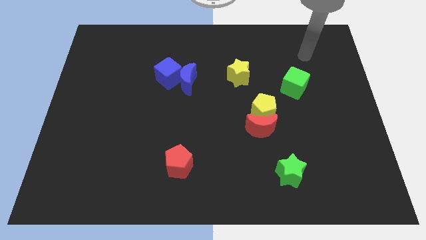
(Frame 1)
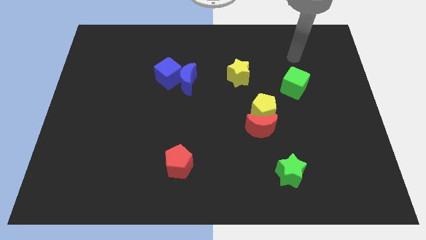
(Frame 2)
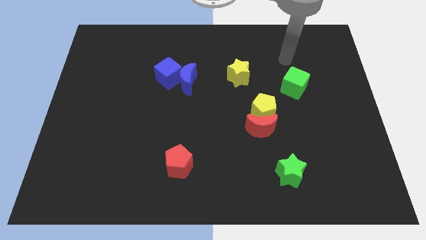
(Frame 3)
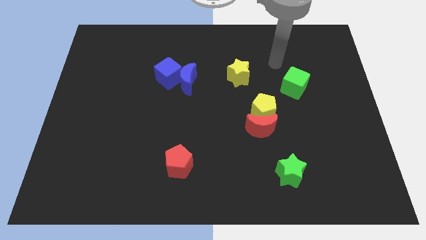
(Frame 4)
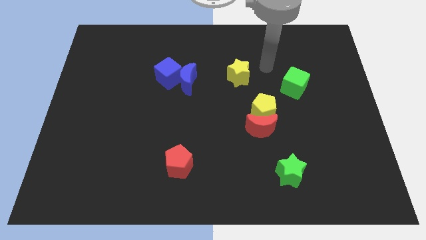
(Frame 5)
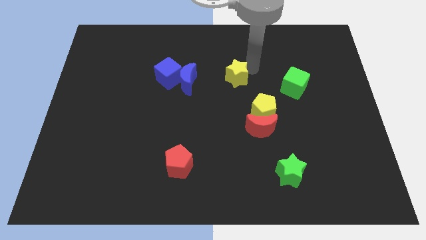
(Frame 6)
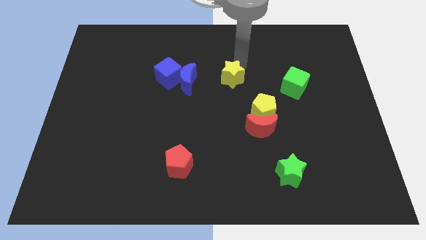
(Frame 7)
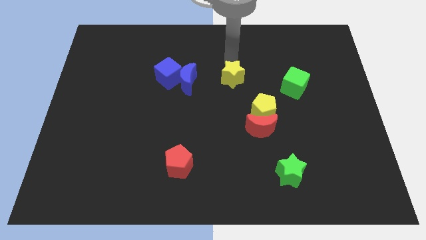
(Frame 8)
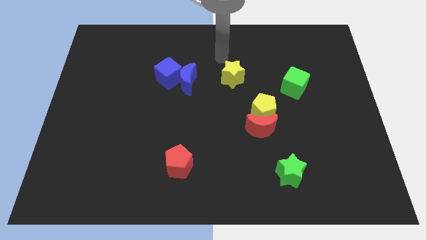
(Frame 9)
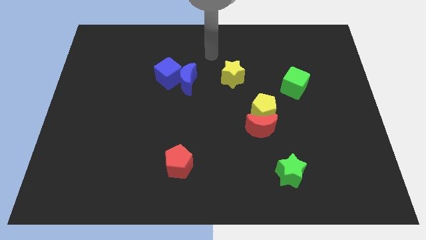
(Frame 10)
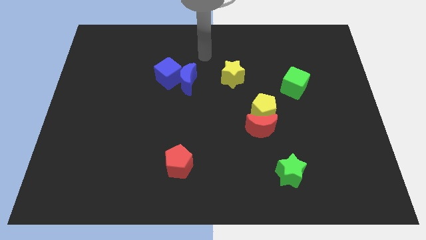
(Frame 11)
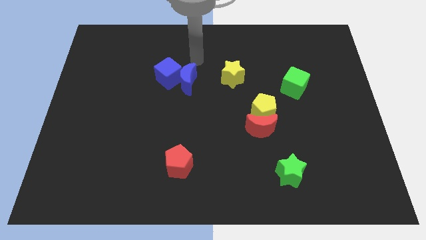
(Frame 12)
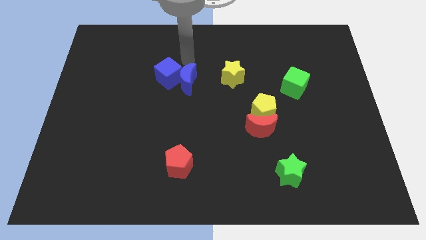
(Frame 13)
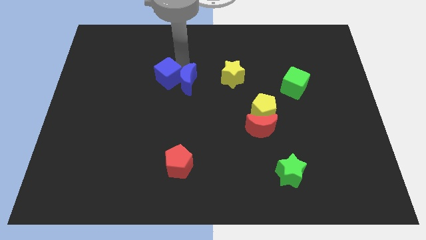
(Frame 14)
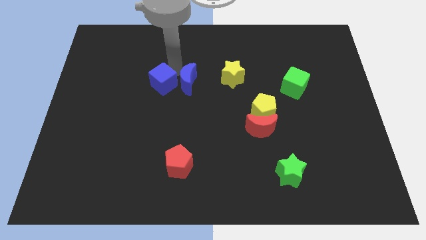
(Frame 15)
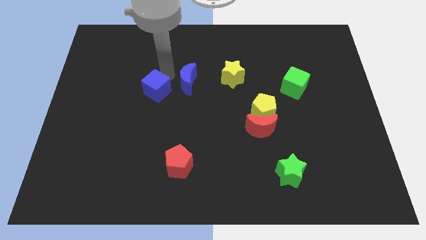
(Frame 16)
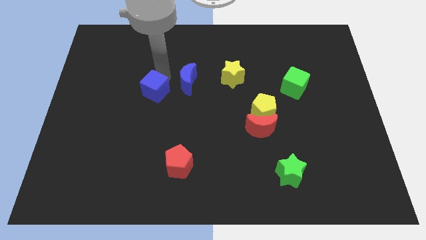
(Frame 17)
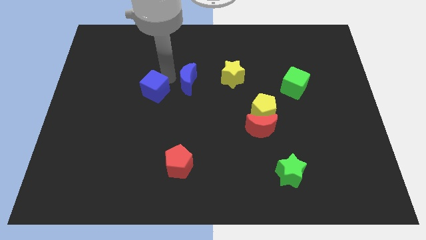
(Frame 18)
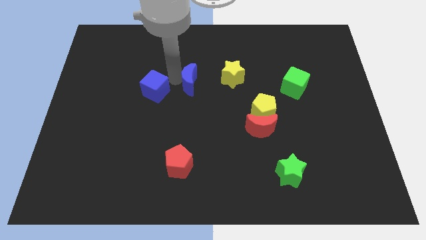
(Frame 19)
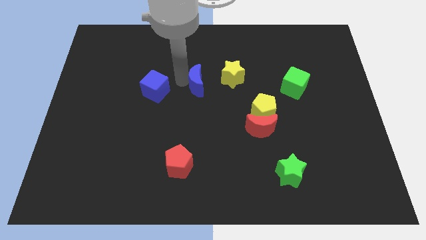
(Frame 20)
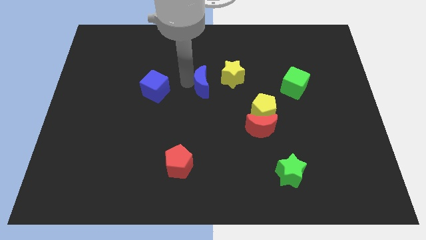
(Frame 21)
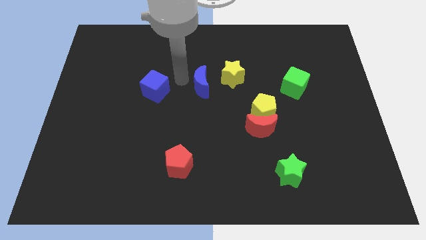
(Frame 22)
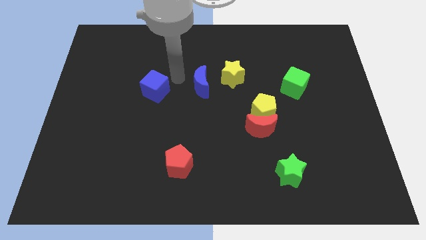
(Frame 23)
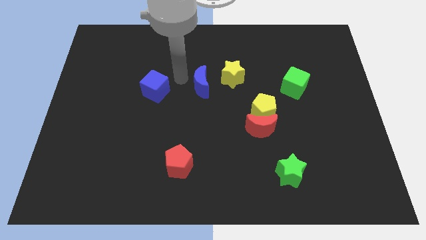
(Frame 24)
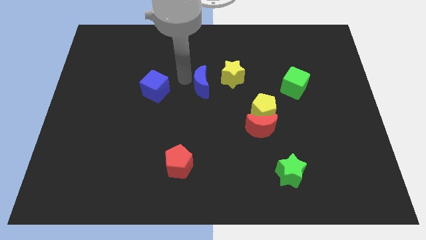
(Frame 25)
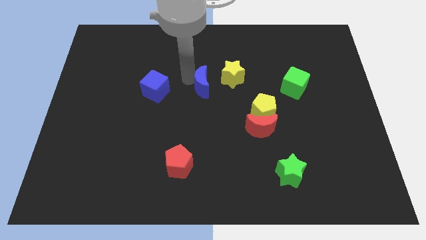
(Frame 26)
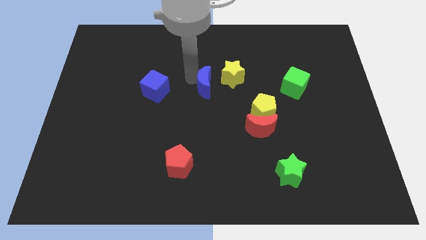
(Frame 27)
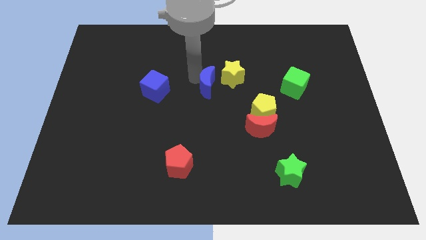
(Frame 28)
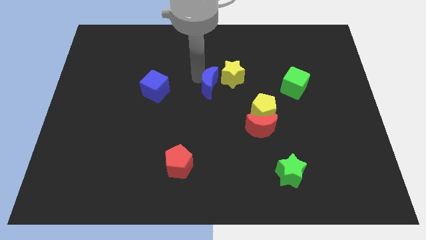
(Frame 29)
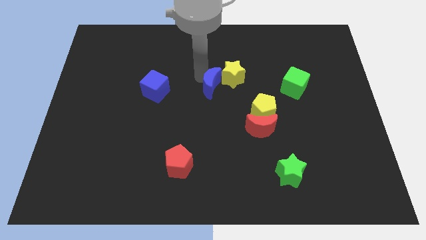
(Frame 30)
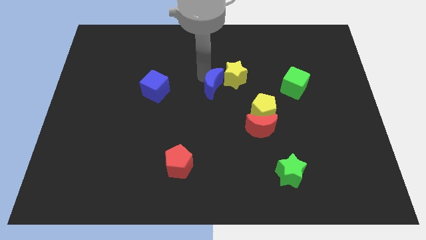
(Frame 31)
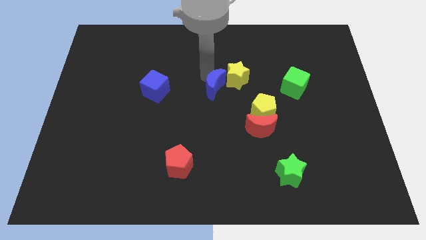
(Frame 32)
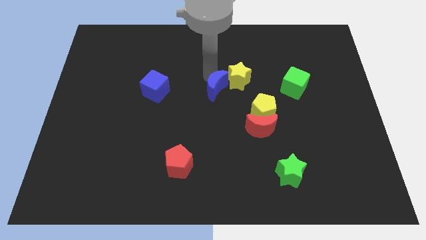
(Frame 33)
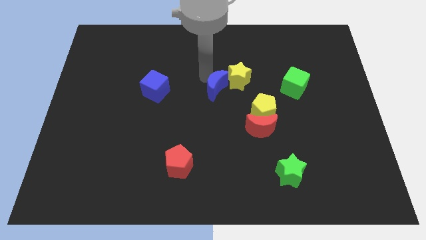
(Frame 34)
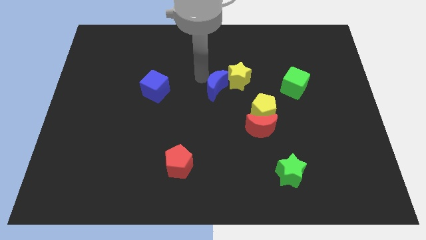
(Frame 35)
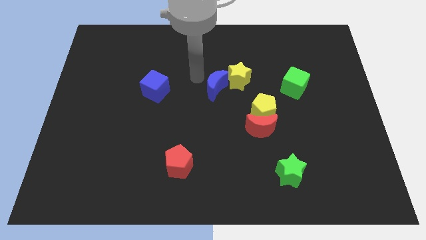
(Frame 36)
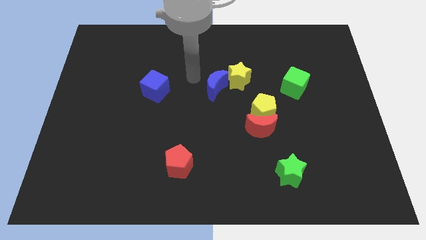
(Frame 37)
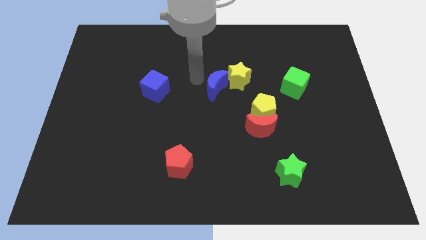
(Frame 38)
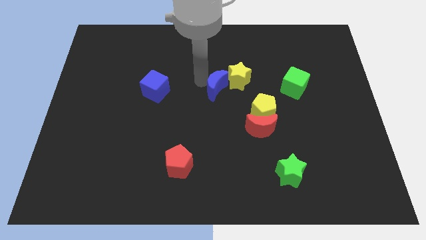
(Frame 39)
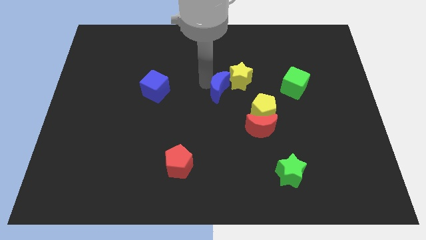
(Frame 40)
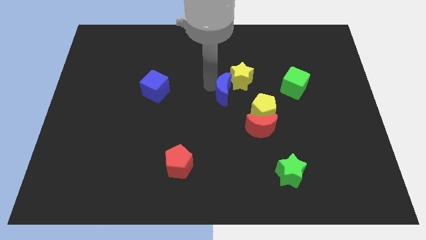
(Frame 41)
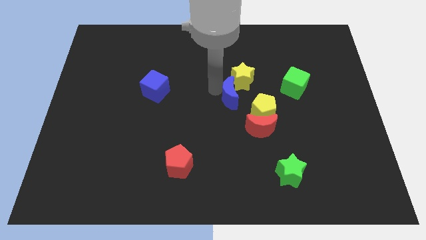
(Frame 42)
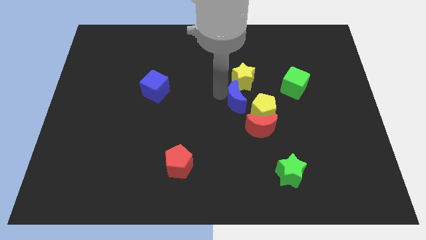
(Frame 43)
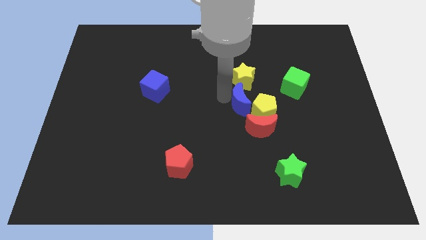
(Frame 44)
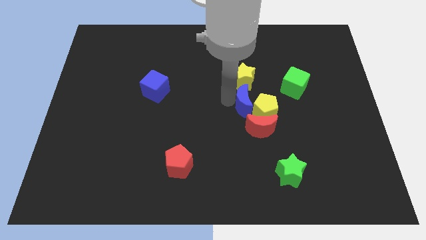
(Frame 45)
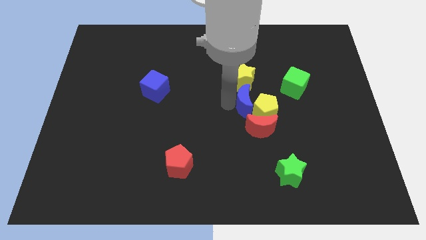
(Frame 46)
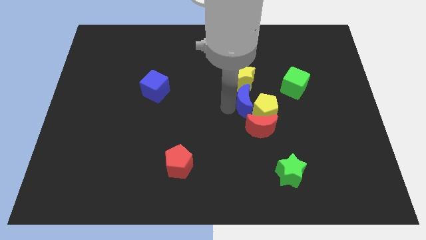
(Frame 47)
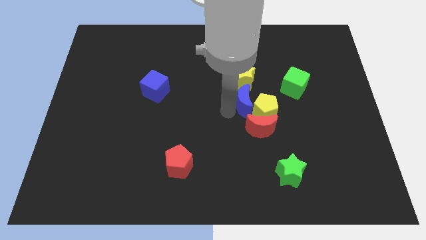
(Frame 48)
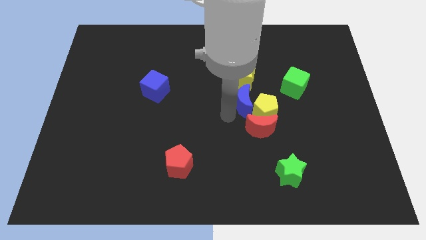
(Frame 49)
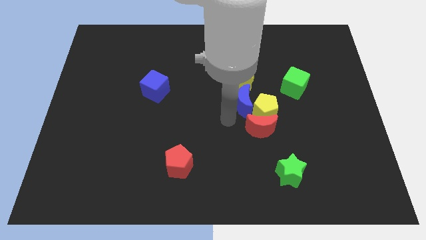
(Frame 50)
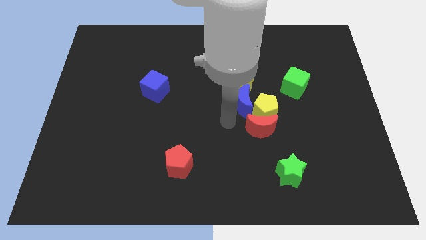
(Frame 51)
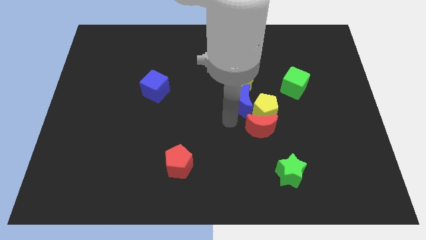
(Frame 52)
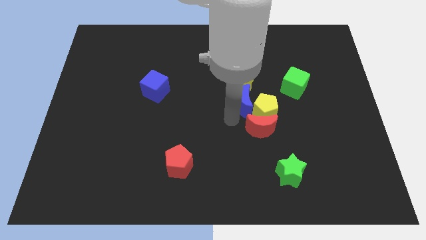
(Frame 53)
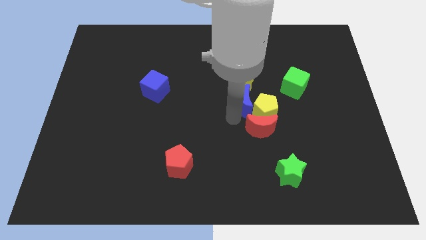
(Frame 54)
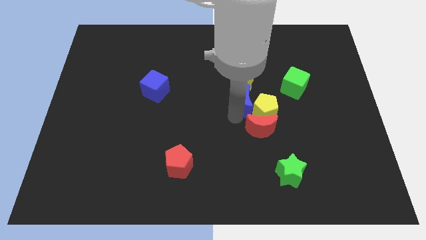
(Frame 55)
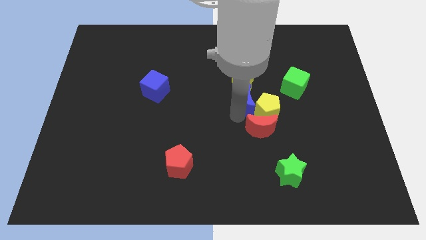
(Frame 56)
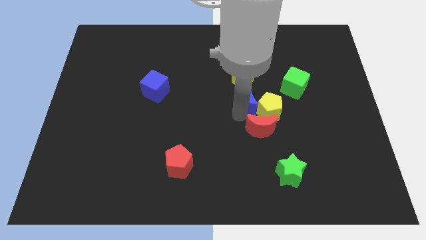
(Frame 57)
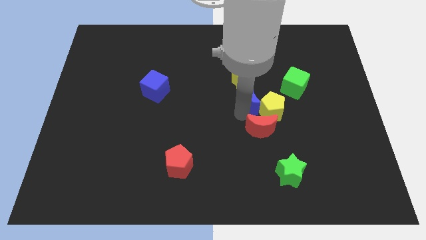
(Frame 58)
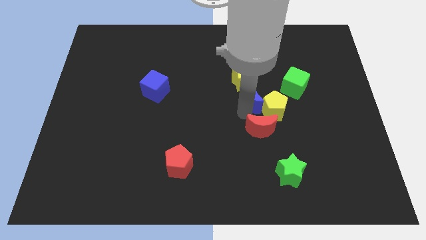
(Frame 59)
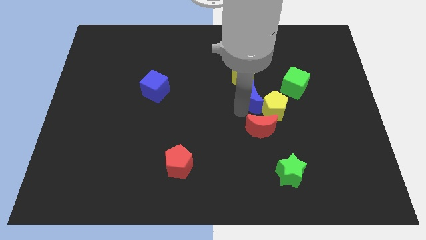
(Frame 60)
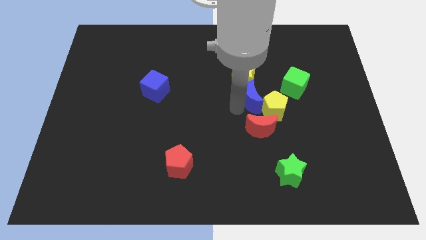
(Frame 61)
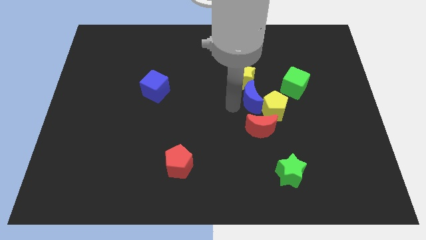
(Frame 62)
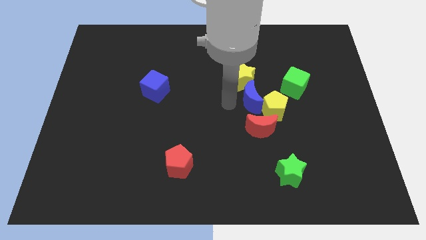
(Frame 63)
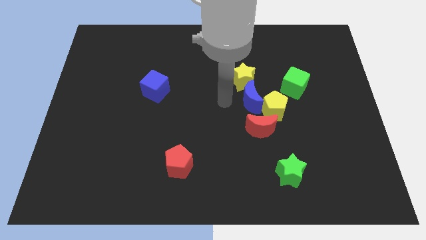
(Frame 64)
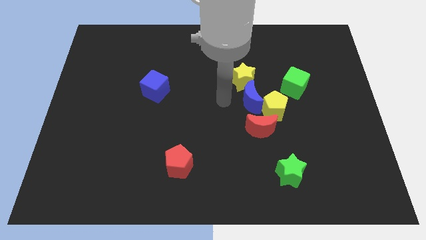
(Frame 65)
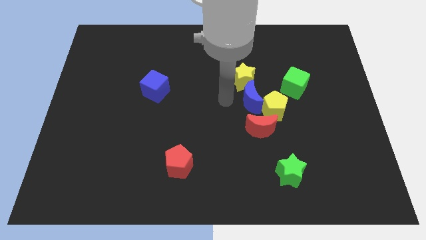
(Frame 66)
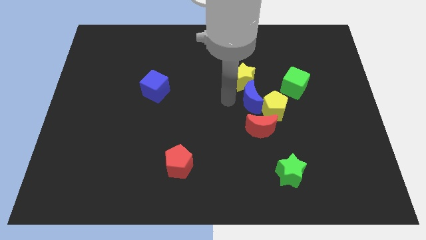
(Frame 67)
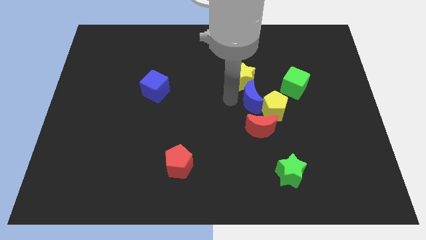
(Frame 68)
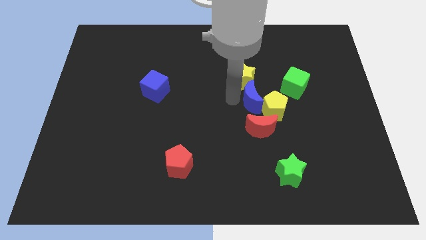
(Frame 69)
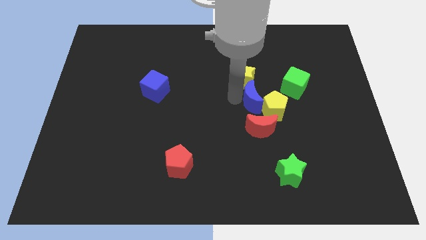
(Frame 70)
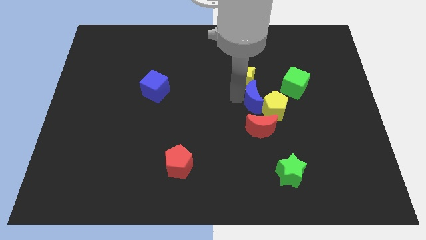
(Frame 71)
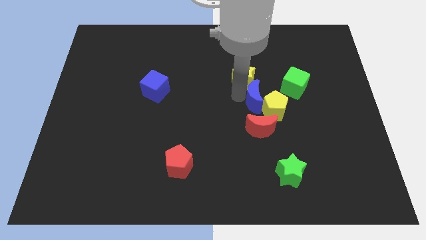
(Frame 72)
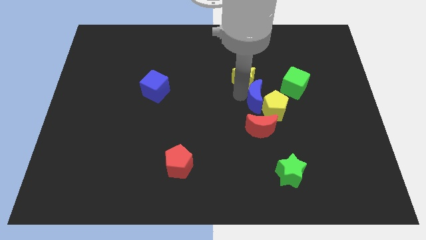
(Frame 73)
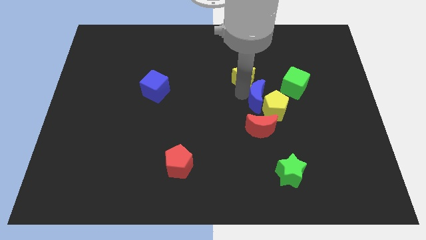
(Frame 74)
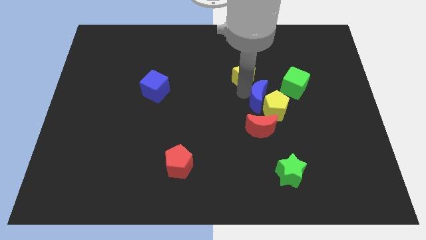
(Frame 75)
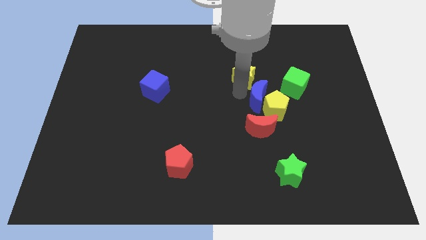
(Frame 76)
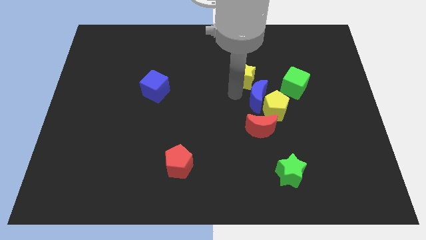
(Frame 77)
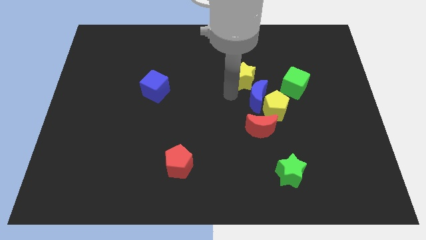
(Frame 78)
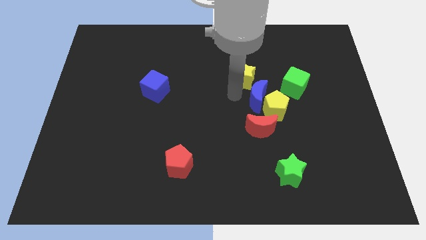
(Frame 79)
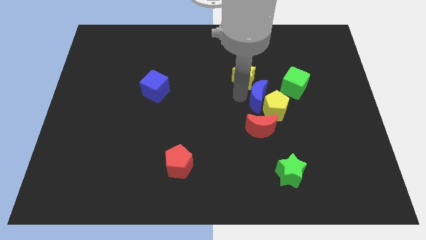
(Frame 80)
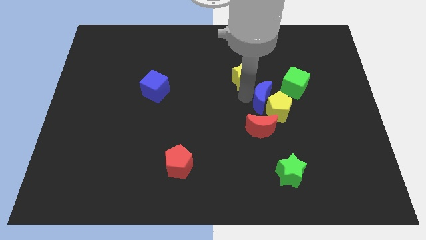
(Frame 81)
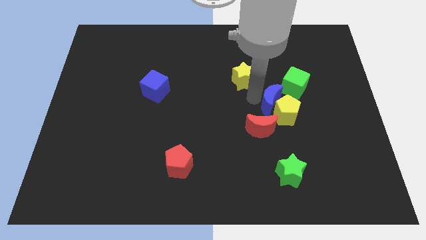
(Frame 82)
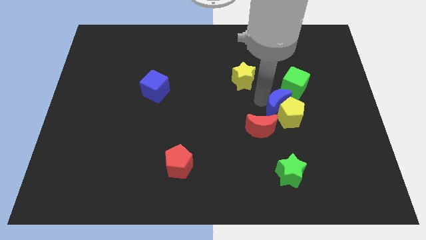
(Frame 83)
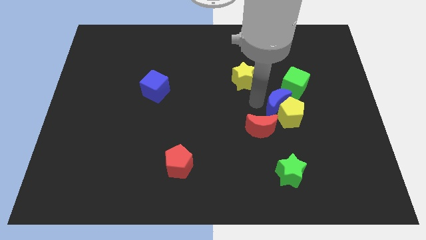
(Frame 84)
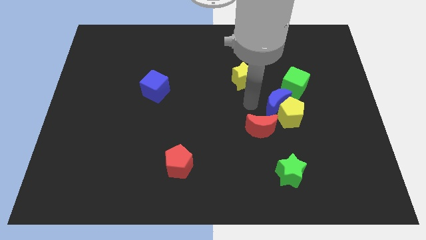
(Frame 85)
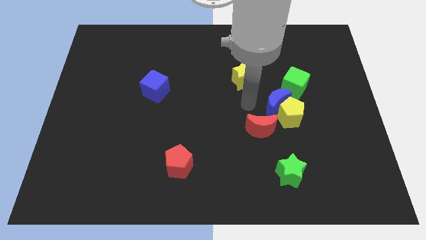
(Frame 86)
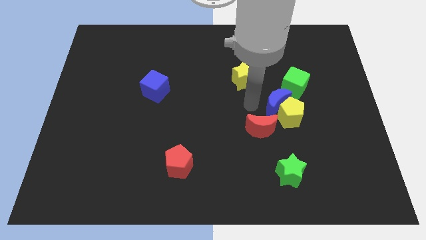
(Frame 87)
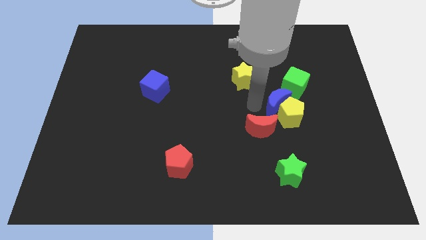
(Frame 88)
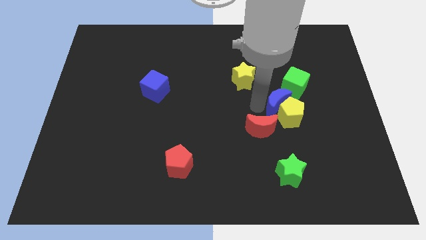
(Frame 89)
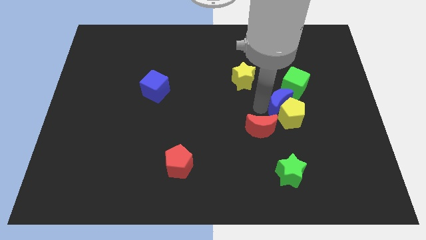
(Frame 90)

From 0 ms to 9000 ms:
push the blue moon to the bottom of the green cube
